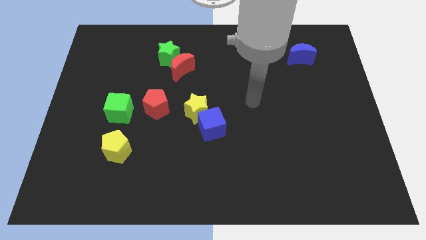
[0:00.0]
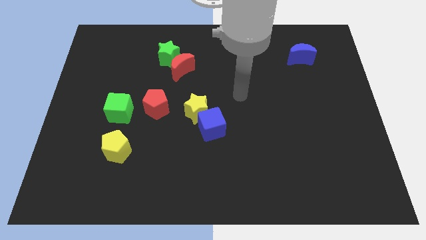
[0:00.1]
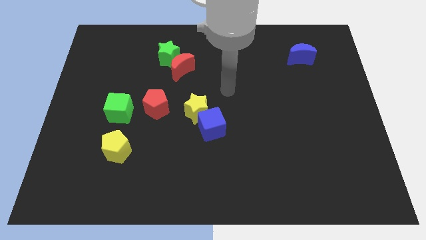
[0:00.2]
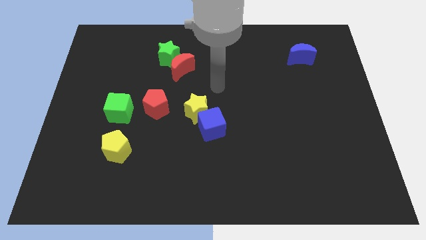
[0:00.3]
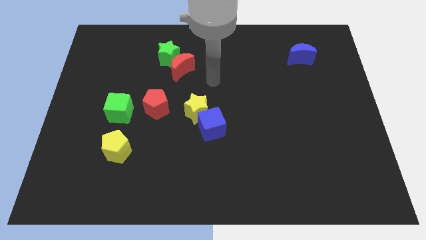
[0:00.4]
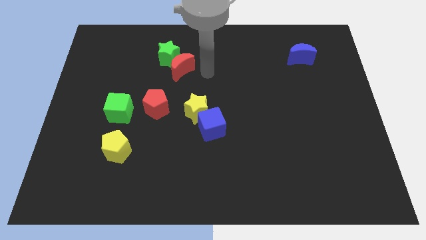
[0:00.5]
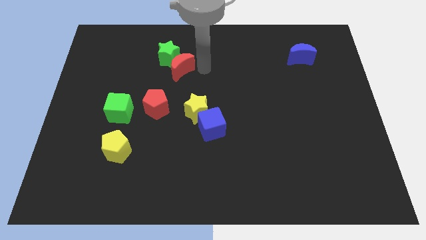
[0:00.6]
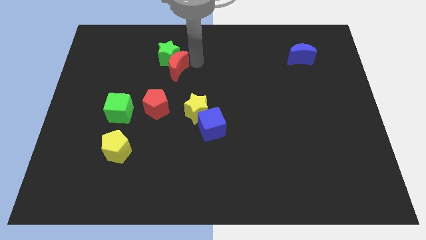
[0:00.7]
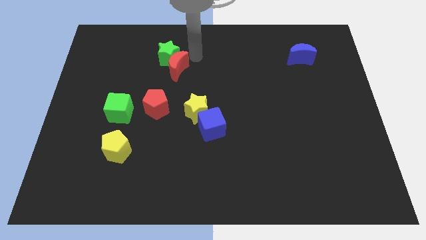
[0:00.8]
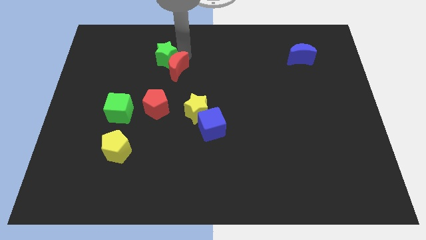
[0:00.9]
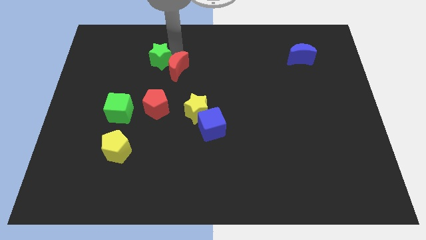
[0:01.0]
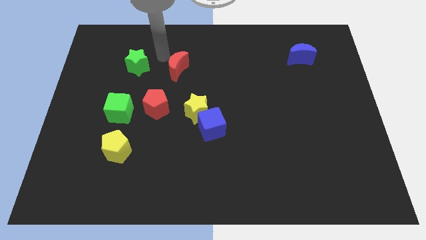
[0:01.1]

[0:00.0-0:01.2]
separate the red moon from the green star

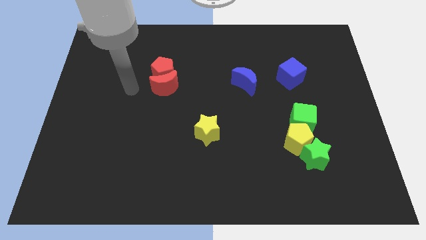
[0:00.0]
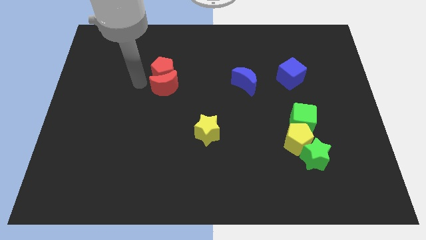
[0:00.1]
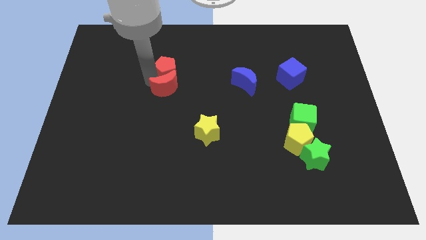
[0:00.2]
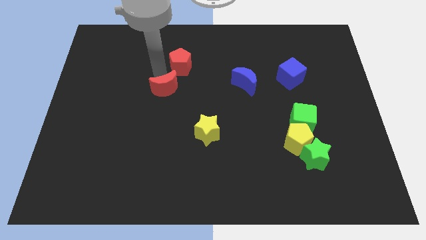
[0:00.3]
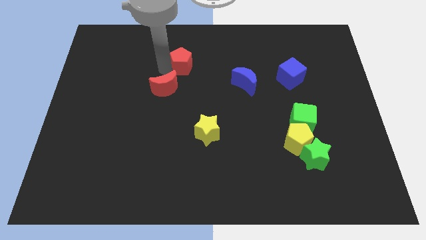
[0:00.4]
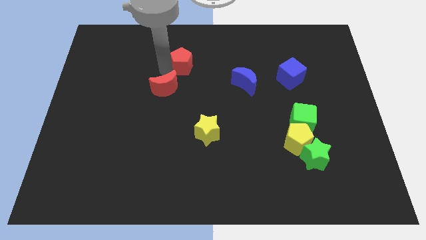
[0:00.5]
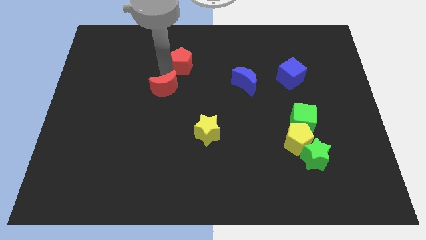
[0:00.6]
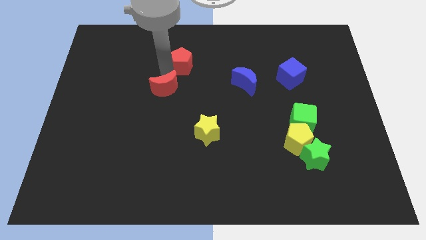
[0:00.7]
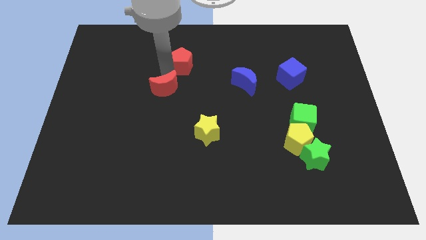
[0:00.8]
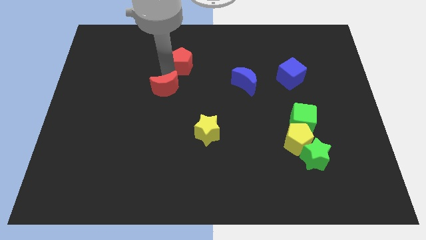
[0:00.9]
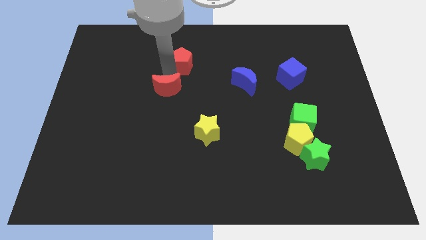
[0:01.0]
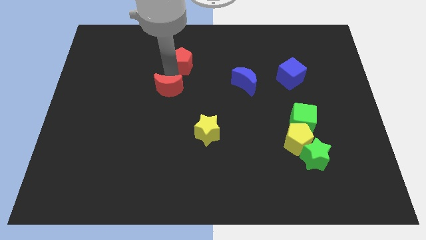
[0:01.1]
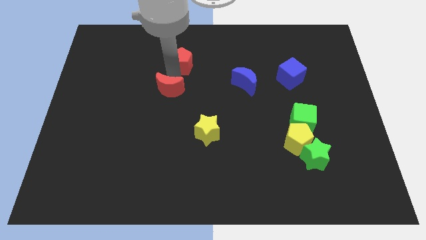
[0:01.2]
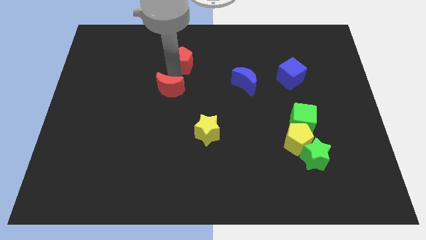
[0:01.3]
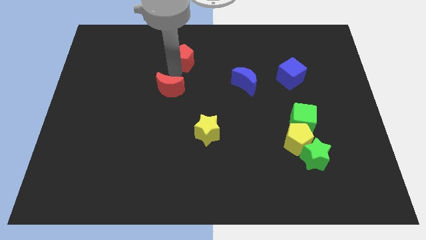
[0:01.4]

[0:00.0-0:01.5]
move the red moon away from the red pentagon

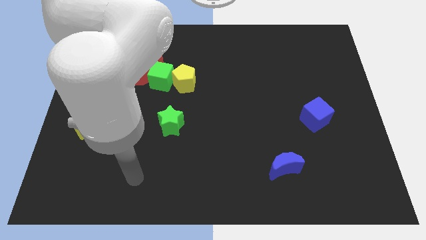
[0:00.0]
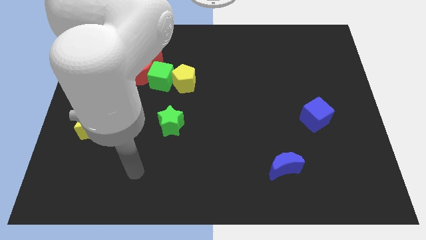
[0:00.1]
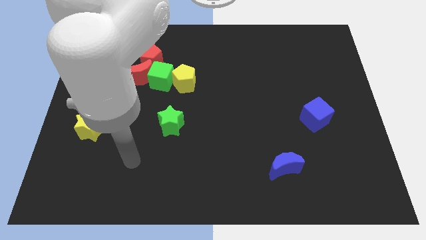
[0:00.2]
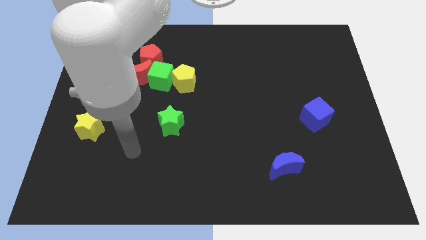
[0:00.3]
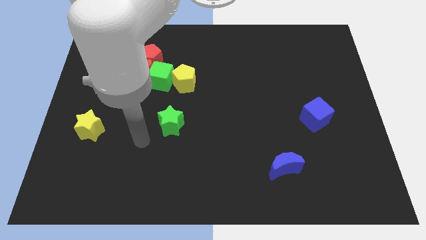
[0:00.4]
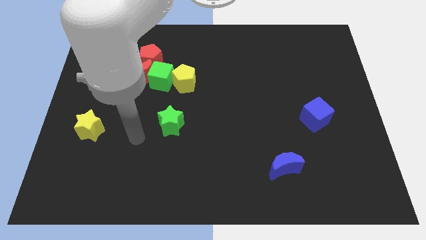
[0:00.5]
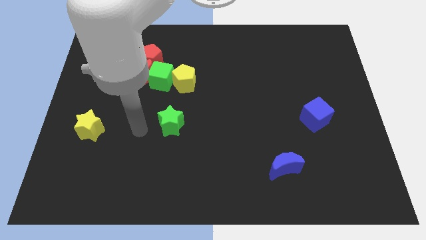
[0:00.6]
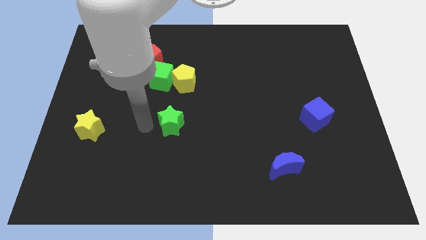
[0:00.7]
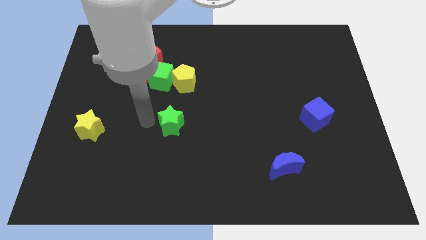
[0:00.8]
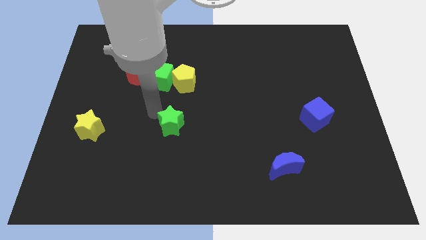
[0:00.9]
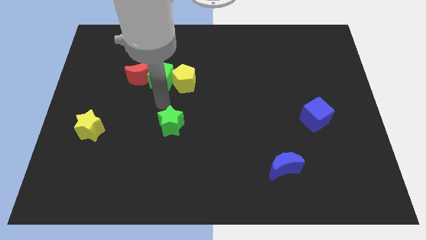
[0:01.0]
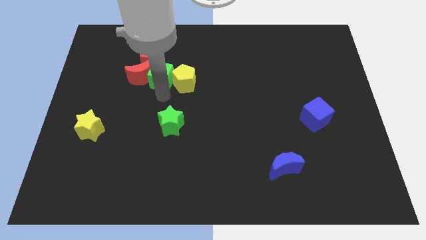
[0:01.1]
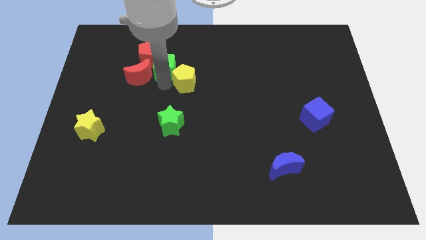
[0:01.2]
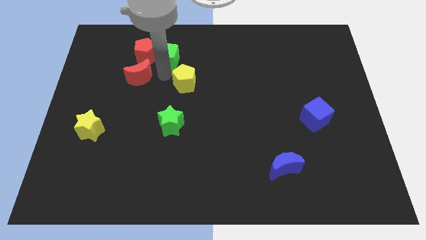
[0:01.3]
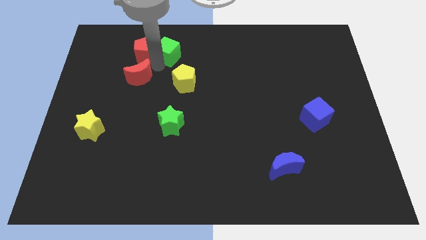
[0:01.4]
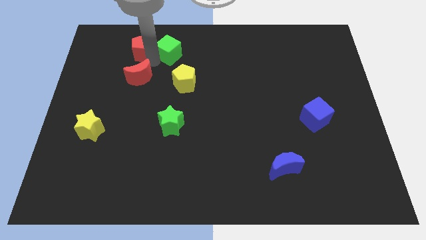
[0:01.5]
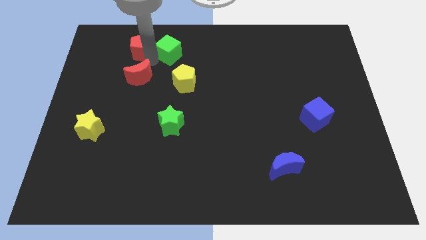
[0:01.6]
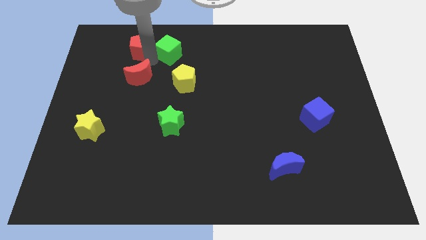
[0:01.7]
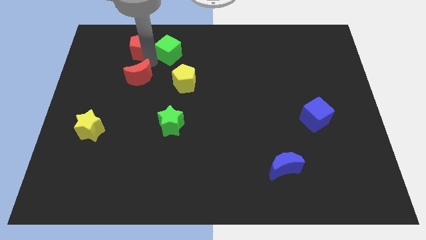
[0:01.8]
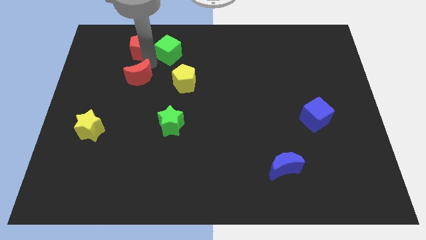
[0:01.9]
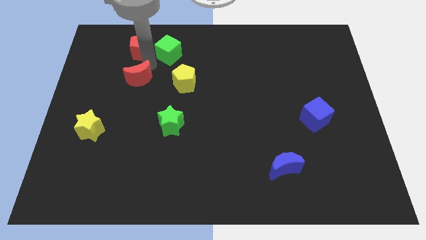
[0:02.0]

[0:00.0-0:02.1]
pull the red moon apart from the green cube and red pentagon

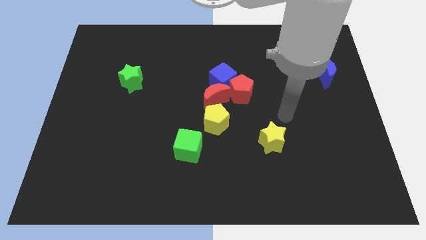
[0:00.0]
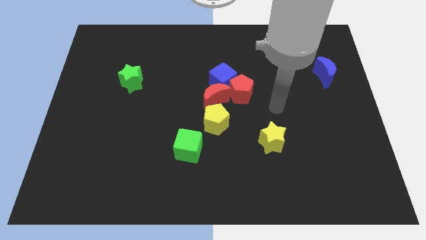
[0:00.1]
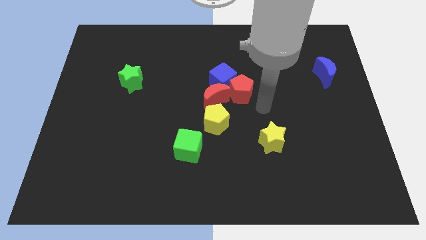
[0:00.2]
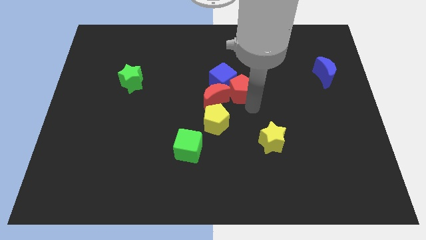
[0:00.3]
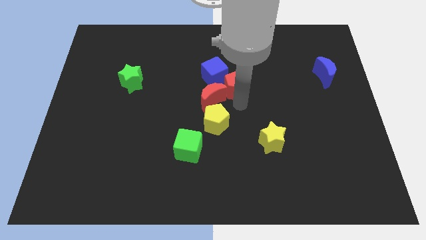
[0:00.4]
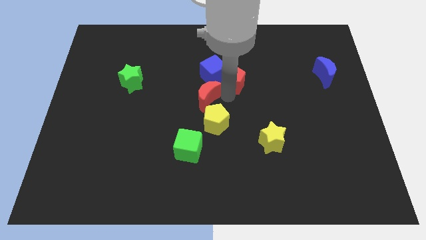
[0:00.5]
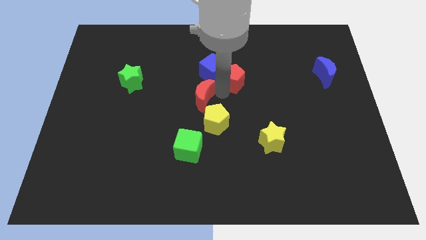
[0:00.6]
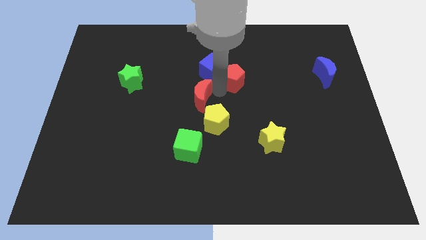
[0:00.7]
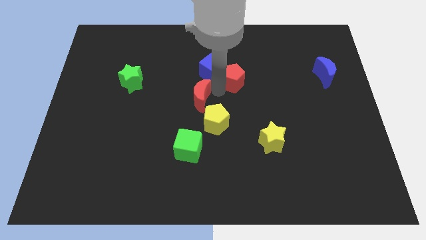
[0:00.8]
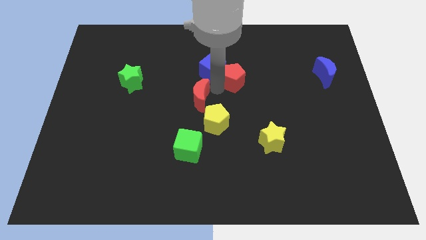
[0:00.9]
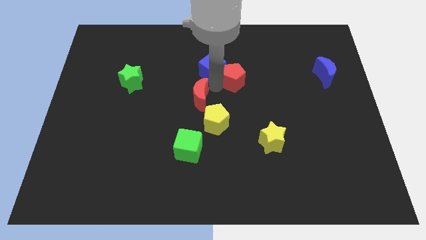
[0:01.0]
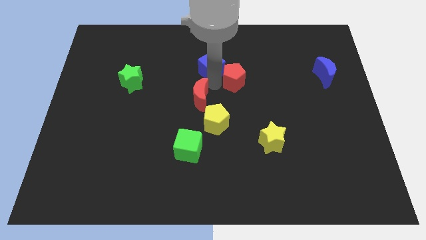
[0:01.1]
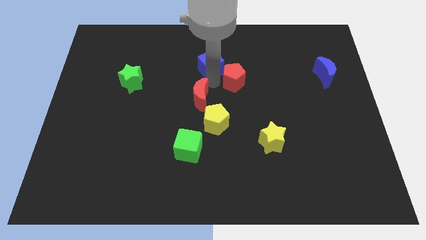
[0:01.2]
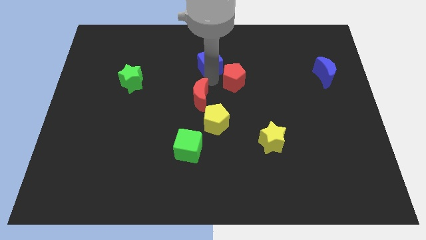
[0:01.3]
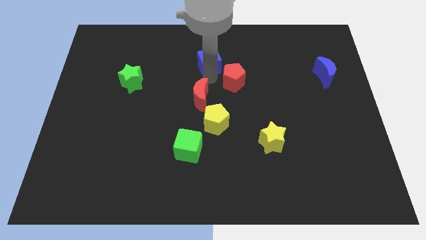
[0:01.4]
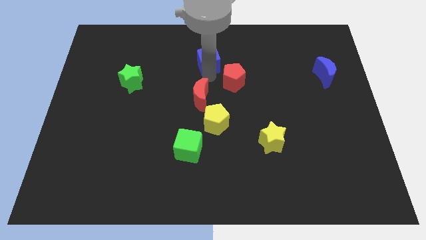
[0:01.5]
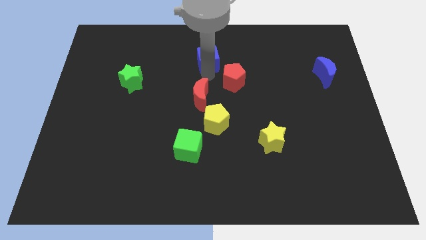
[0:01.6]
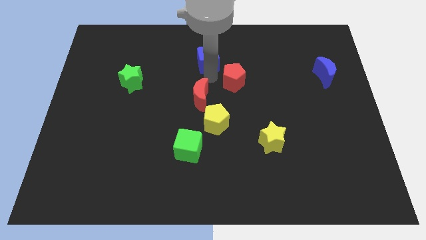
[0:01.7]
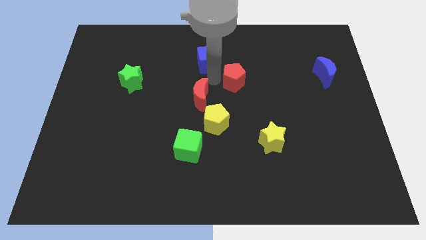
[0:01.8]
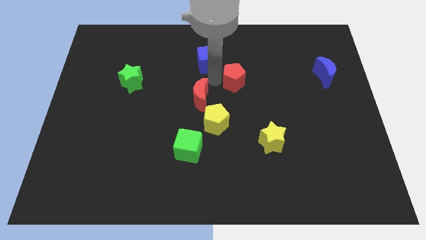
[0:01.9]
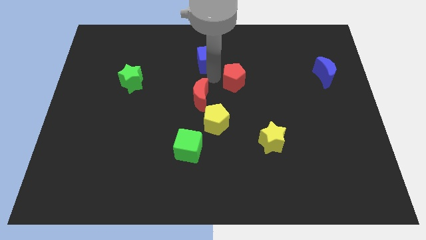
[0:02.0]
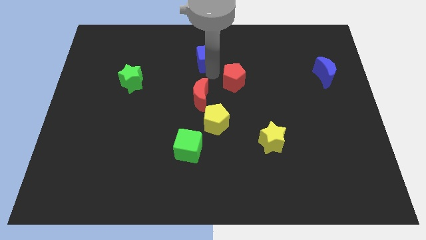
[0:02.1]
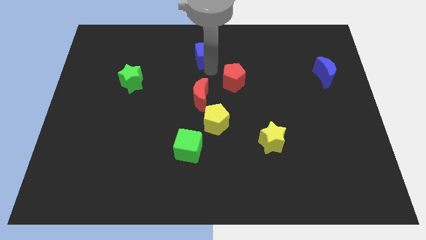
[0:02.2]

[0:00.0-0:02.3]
separate the blue cube from the red pentagon and red moon

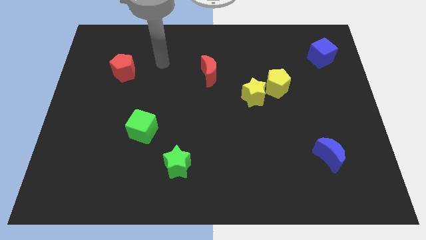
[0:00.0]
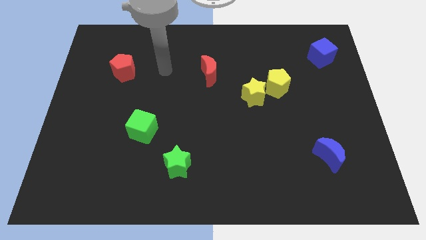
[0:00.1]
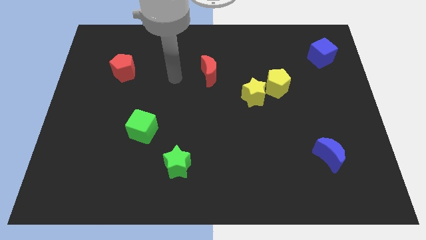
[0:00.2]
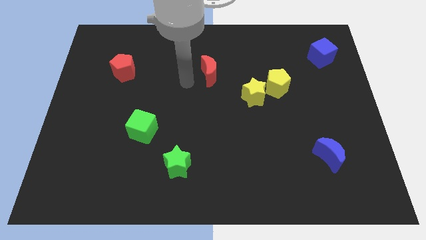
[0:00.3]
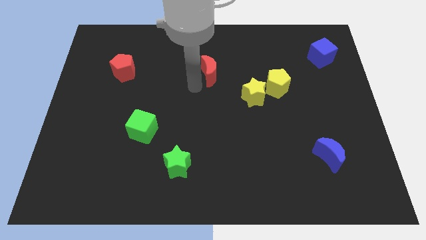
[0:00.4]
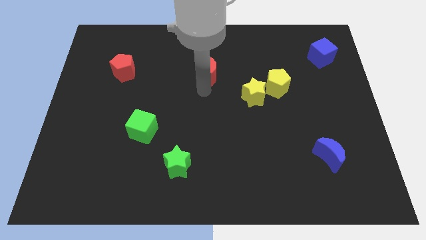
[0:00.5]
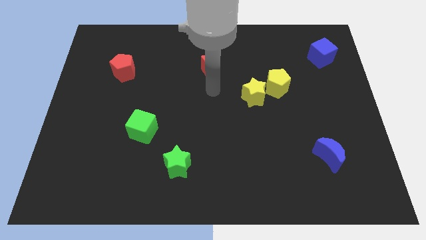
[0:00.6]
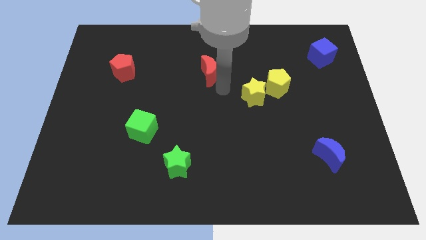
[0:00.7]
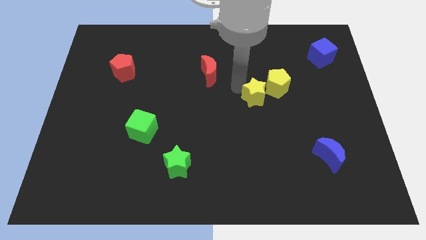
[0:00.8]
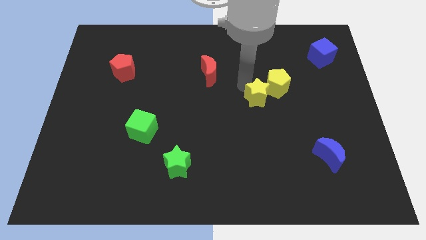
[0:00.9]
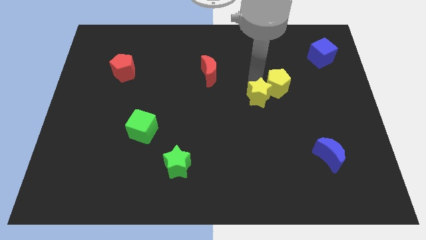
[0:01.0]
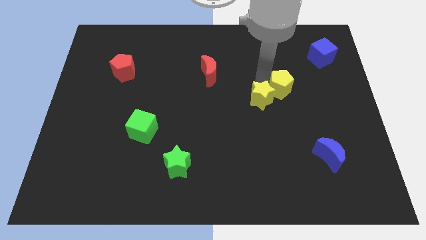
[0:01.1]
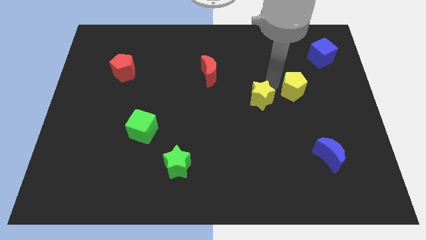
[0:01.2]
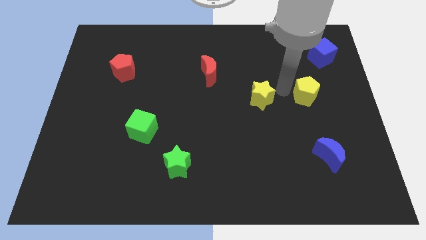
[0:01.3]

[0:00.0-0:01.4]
pull the yellow star apart from the yellow pentagon

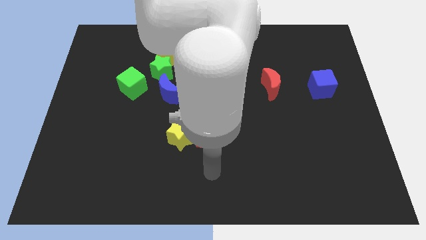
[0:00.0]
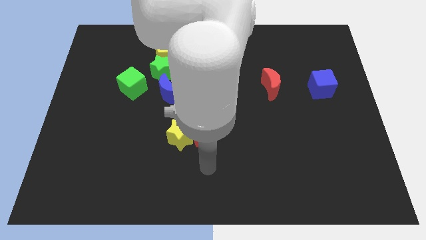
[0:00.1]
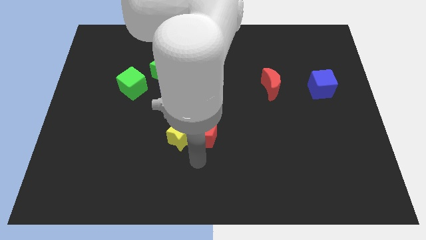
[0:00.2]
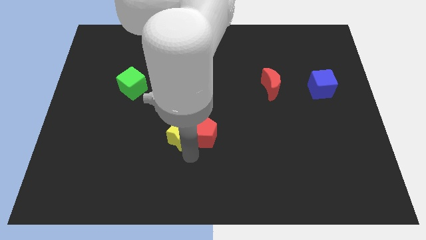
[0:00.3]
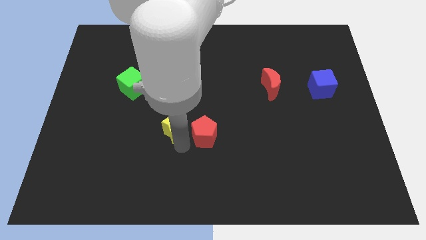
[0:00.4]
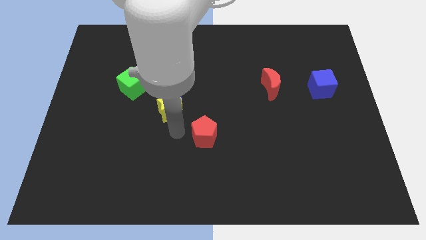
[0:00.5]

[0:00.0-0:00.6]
move the red pentagon away from the yellow star

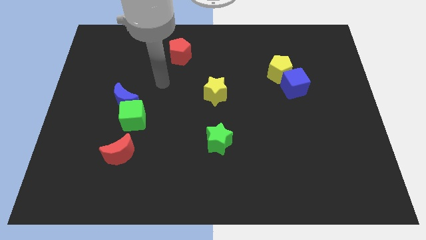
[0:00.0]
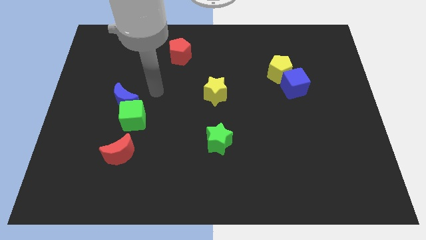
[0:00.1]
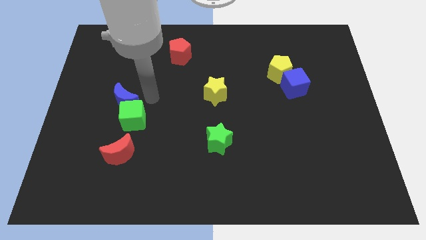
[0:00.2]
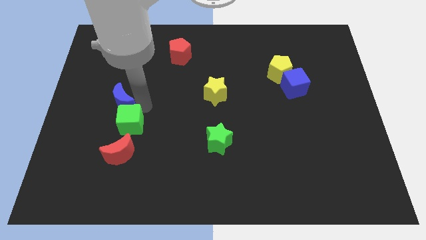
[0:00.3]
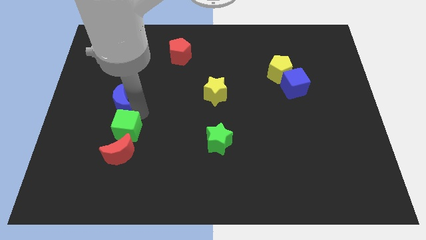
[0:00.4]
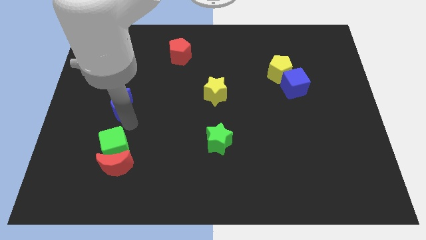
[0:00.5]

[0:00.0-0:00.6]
pull the blue moon apart from the green cube
